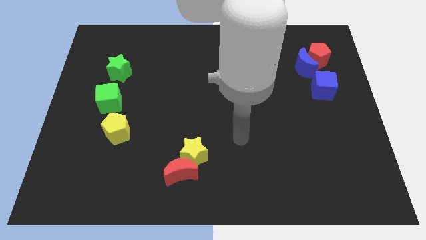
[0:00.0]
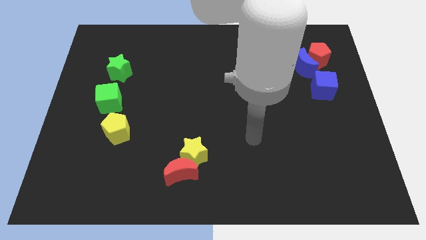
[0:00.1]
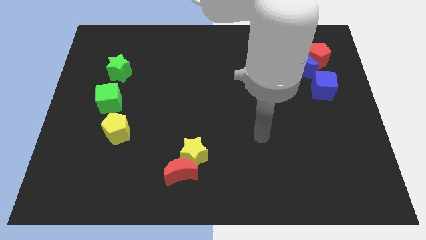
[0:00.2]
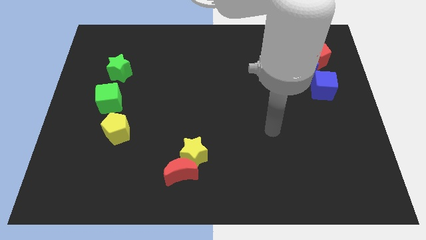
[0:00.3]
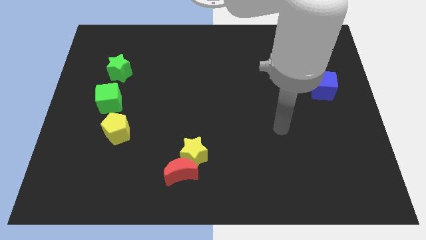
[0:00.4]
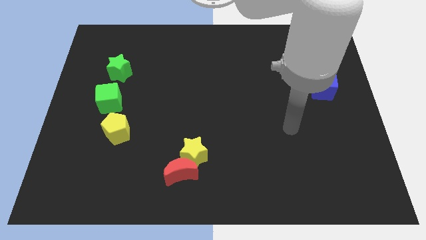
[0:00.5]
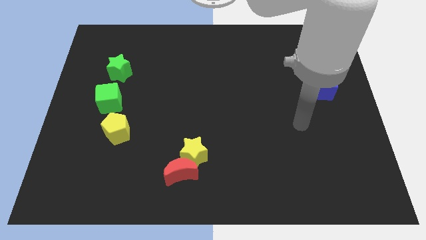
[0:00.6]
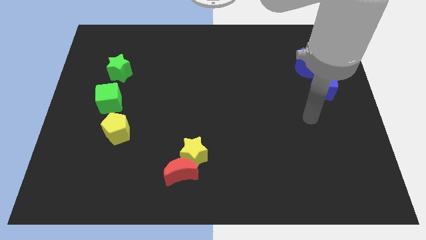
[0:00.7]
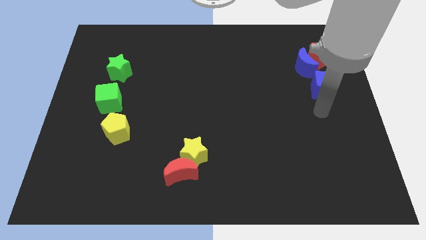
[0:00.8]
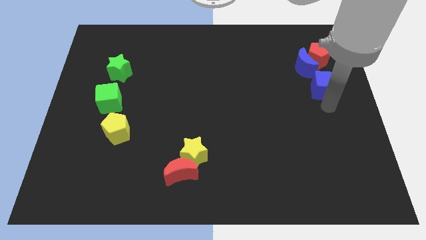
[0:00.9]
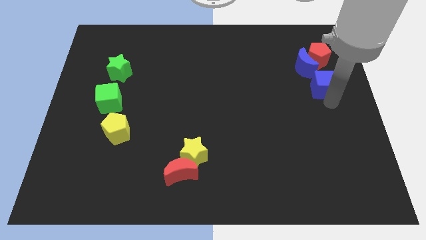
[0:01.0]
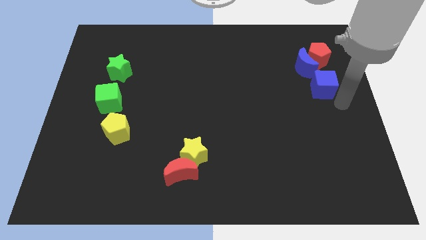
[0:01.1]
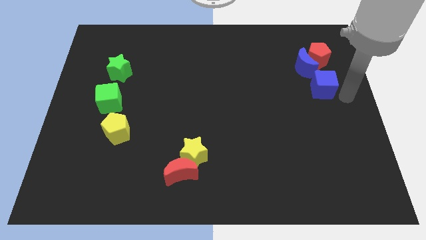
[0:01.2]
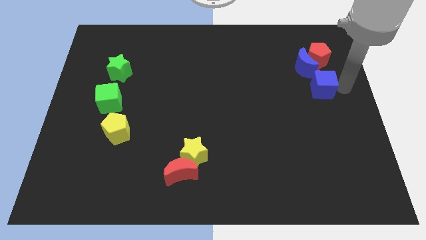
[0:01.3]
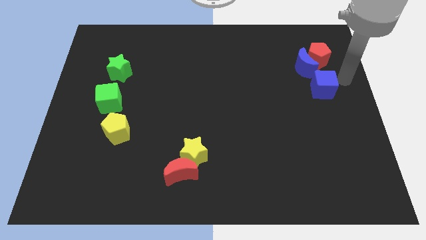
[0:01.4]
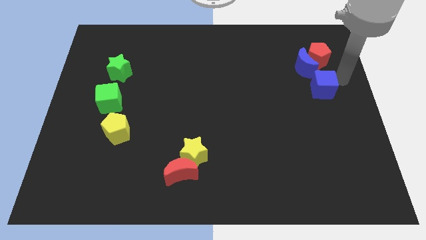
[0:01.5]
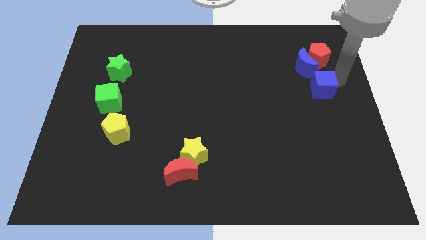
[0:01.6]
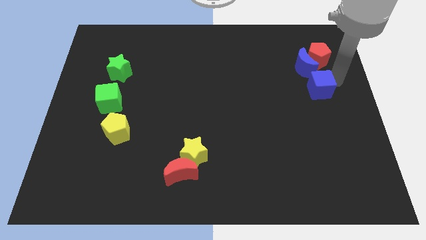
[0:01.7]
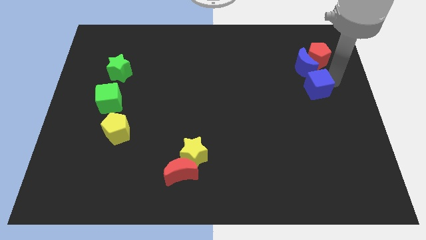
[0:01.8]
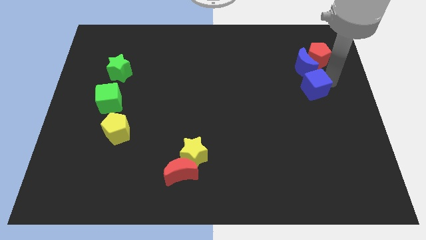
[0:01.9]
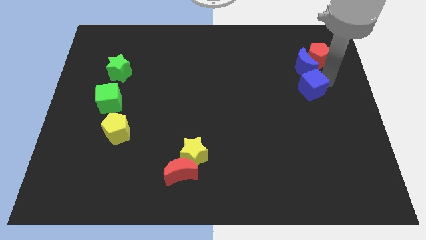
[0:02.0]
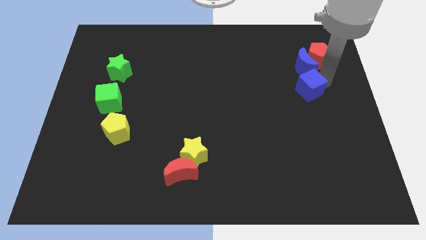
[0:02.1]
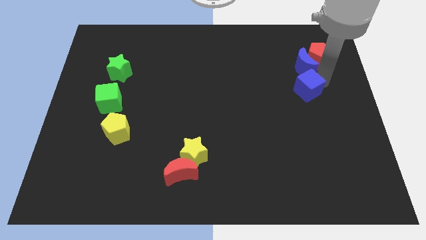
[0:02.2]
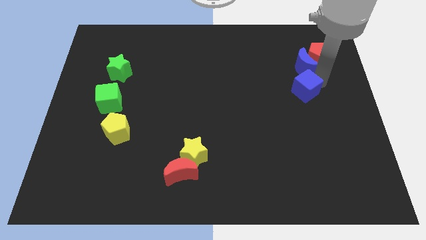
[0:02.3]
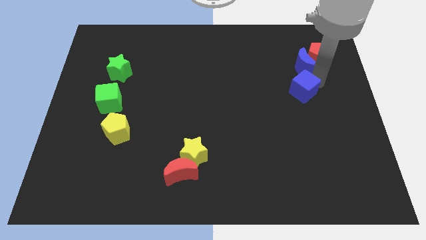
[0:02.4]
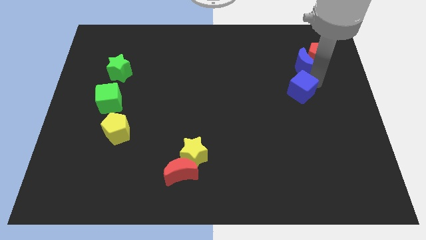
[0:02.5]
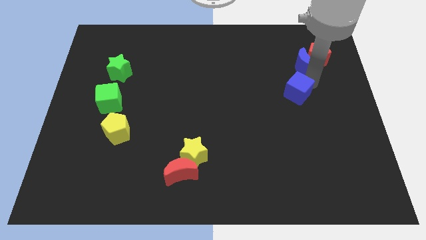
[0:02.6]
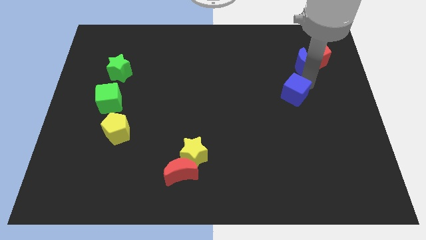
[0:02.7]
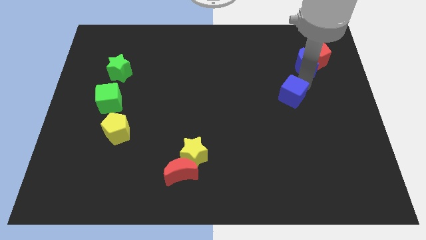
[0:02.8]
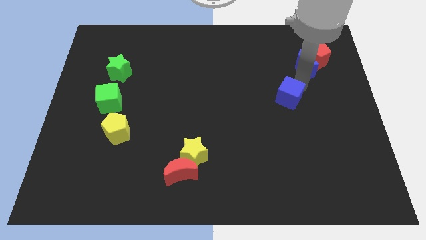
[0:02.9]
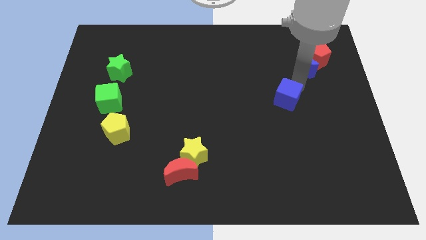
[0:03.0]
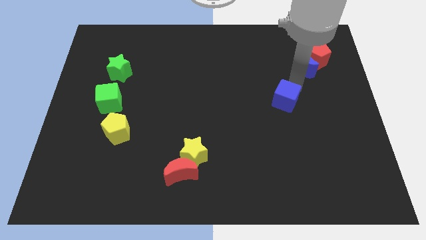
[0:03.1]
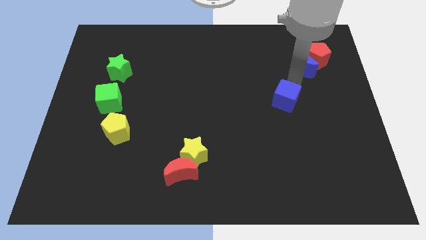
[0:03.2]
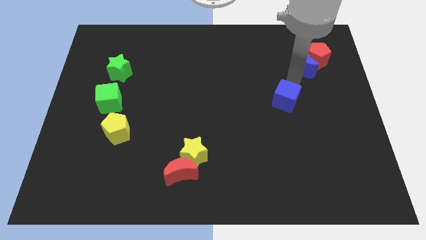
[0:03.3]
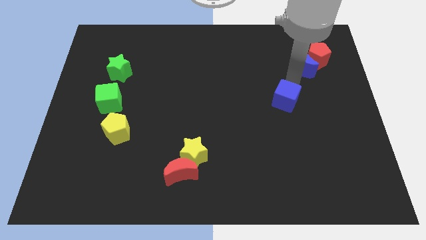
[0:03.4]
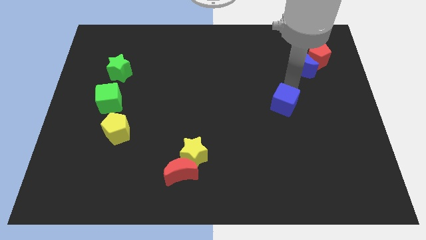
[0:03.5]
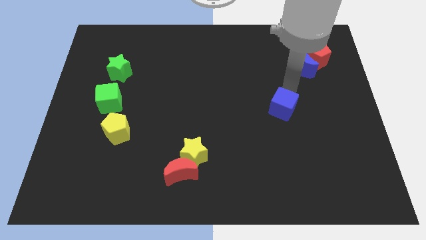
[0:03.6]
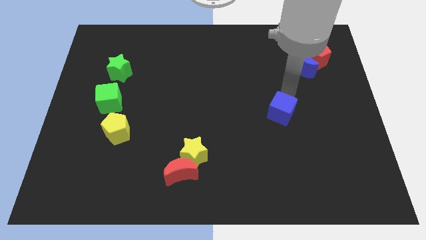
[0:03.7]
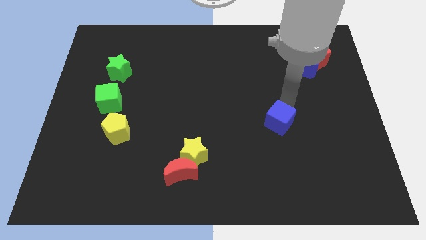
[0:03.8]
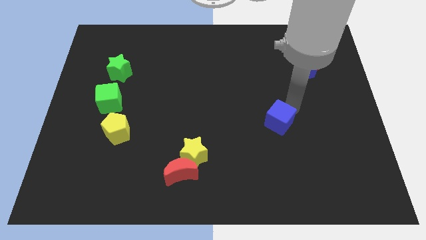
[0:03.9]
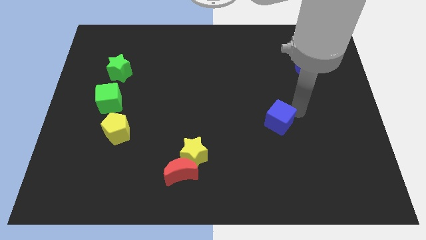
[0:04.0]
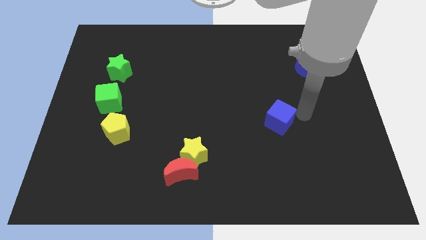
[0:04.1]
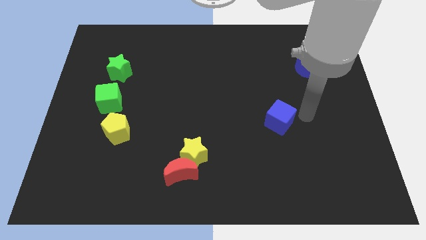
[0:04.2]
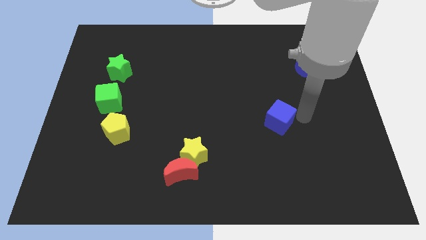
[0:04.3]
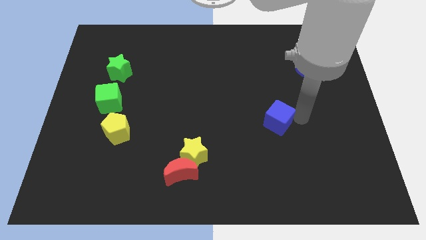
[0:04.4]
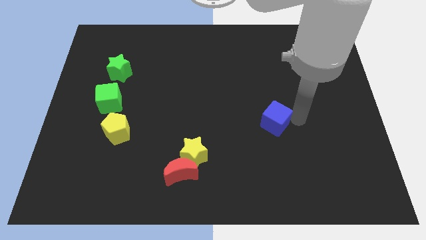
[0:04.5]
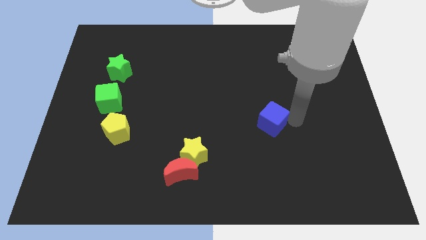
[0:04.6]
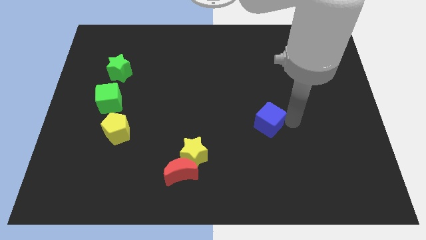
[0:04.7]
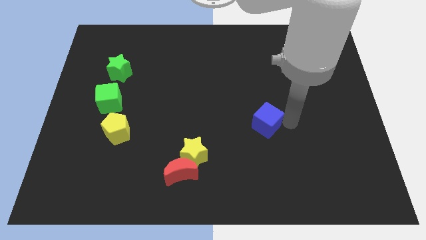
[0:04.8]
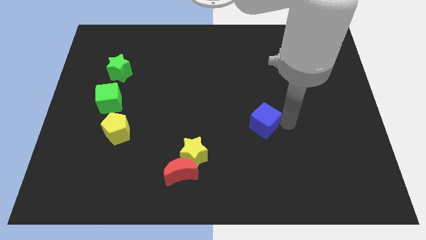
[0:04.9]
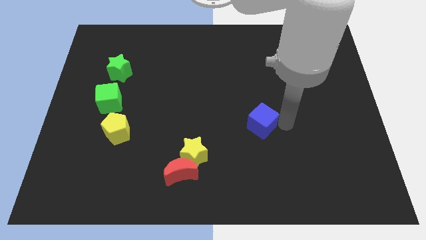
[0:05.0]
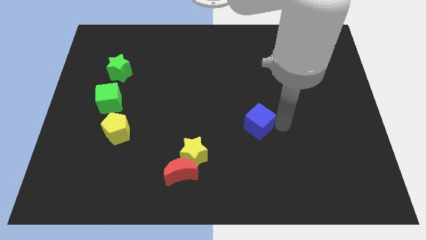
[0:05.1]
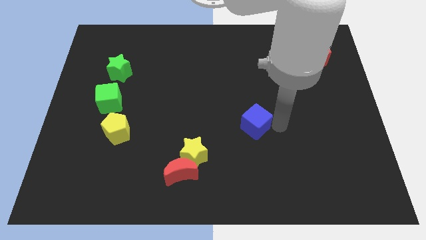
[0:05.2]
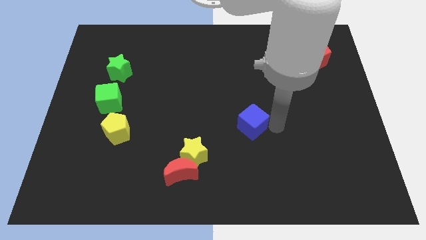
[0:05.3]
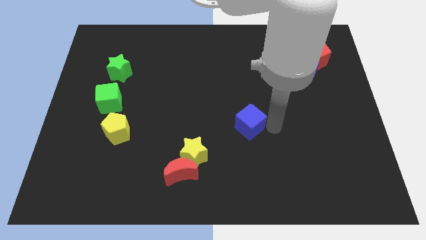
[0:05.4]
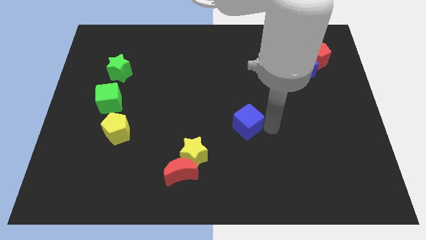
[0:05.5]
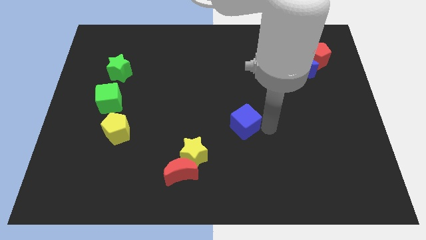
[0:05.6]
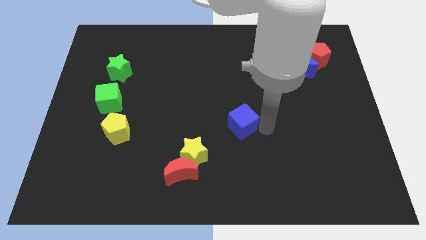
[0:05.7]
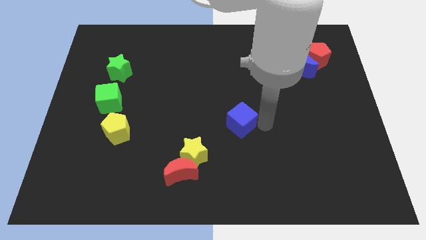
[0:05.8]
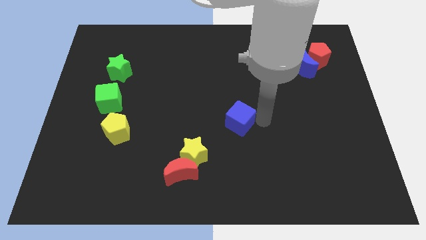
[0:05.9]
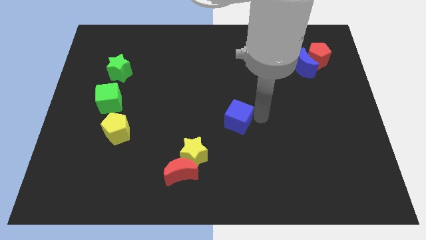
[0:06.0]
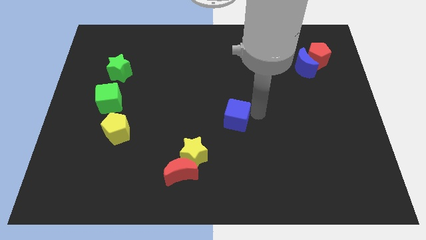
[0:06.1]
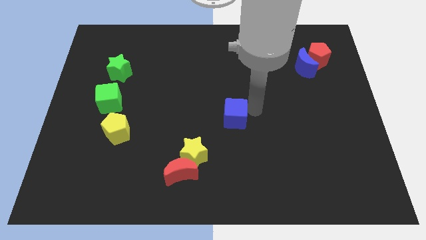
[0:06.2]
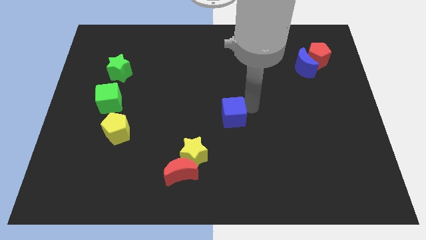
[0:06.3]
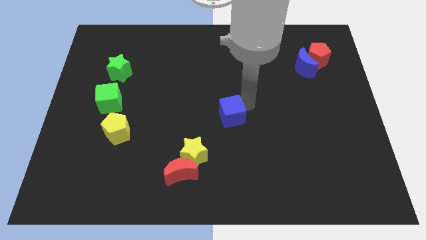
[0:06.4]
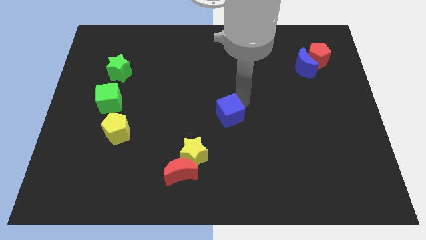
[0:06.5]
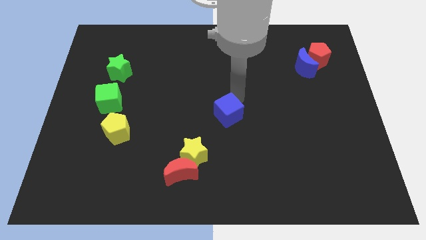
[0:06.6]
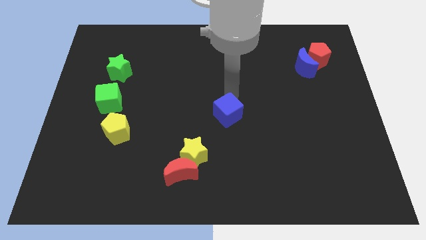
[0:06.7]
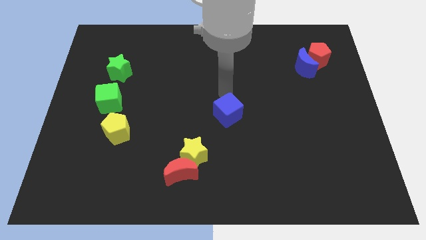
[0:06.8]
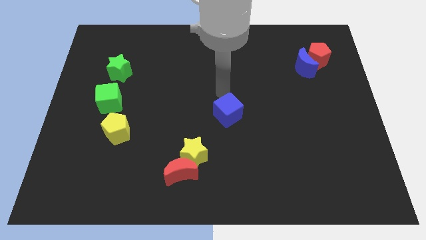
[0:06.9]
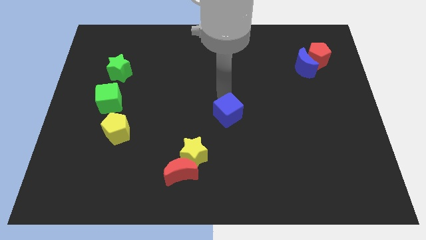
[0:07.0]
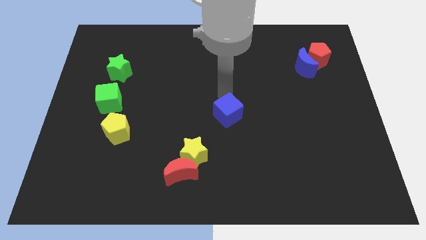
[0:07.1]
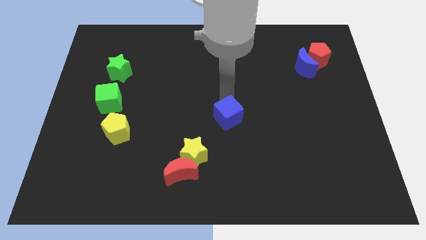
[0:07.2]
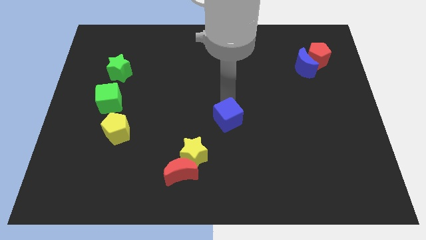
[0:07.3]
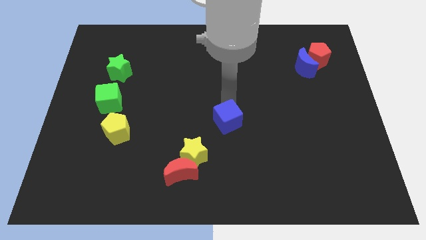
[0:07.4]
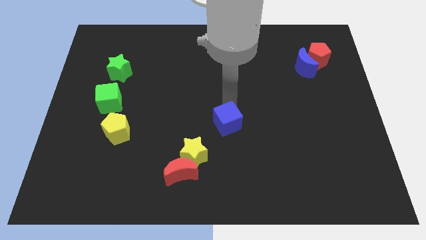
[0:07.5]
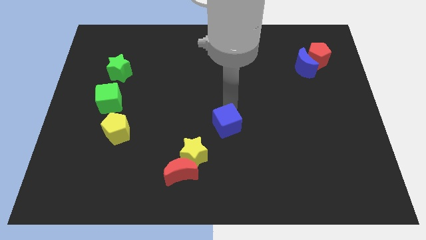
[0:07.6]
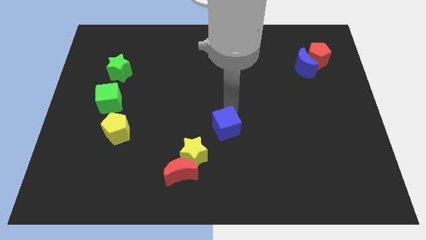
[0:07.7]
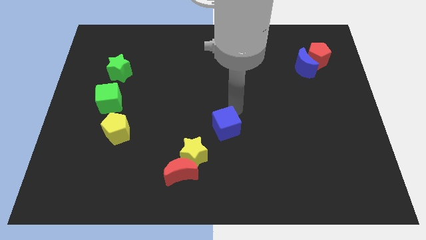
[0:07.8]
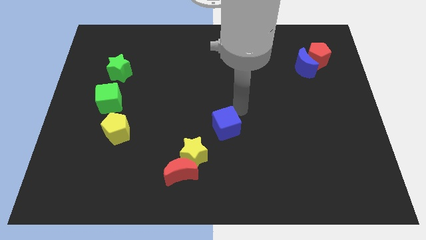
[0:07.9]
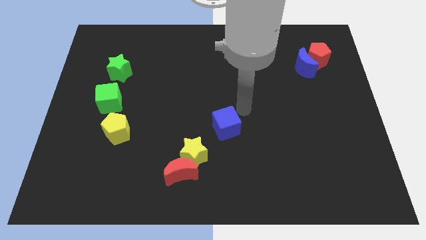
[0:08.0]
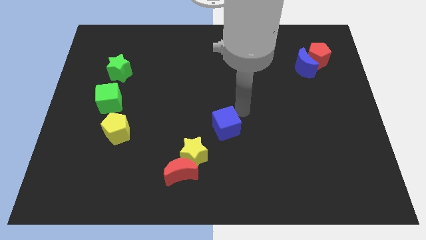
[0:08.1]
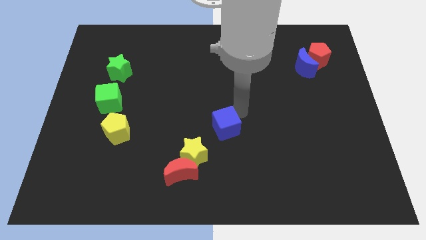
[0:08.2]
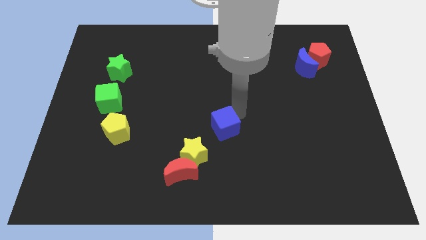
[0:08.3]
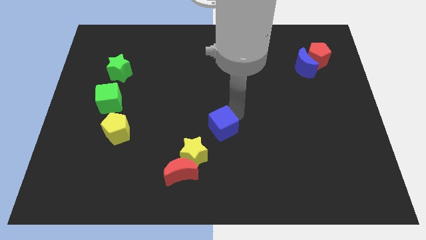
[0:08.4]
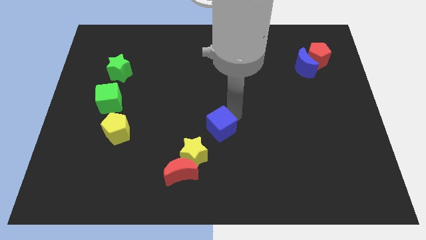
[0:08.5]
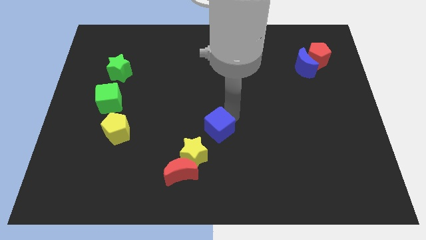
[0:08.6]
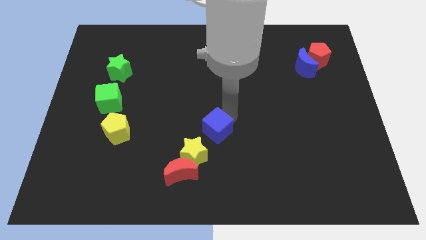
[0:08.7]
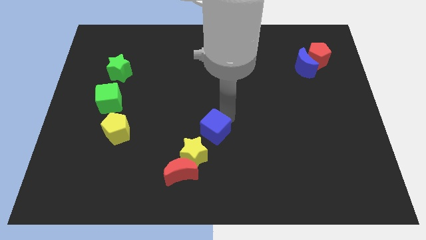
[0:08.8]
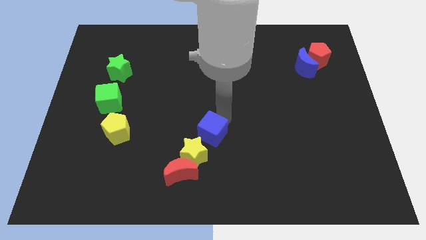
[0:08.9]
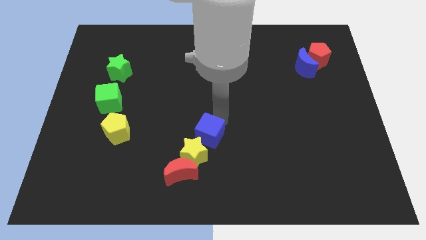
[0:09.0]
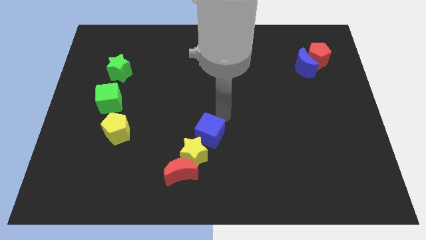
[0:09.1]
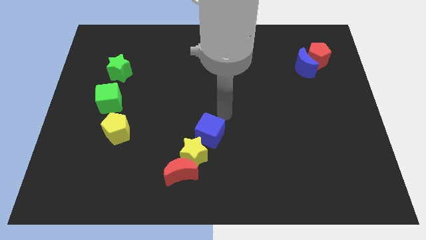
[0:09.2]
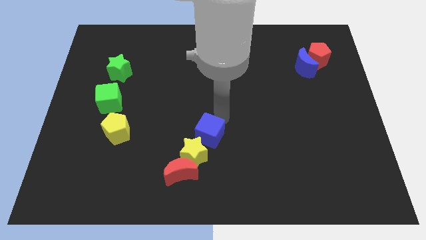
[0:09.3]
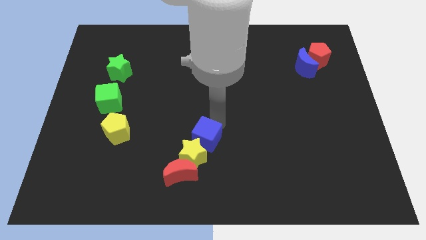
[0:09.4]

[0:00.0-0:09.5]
push the blue cube to the yellow star
